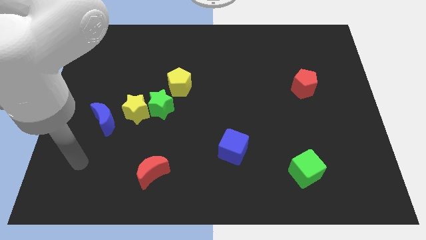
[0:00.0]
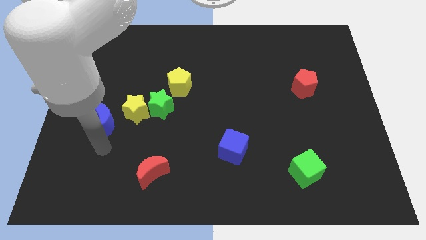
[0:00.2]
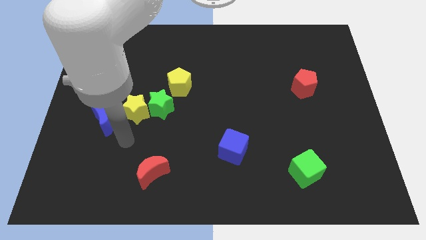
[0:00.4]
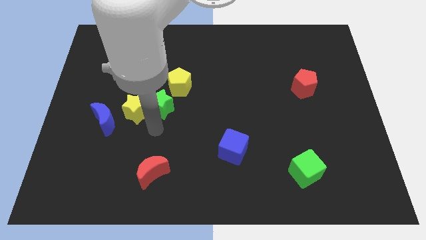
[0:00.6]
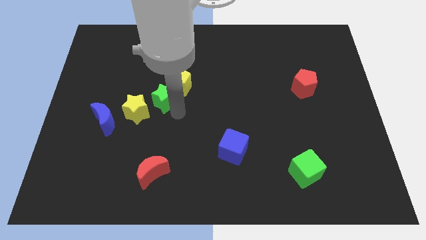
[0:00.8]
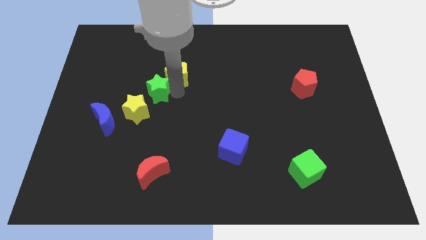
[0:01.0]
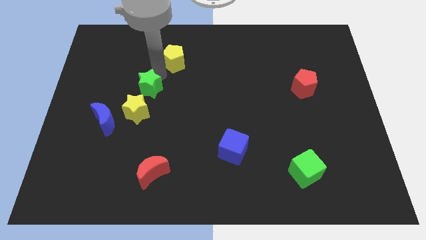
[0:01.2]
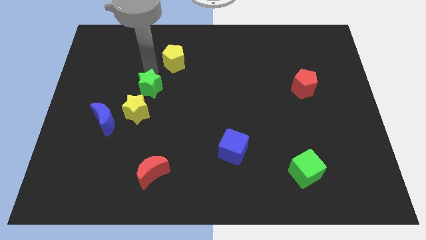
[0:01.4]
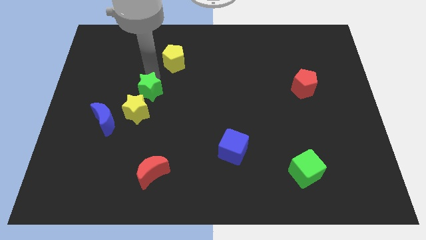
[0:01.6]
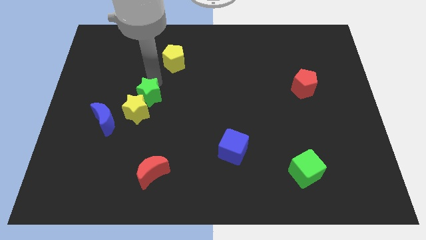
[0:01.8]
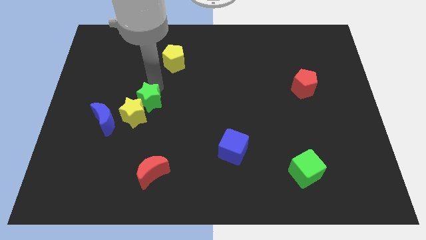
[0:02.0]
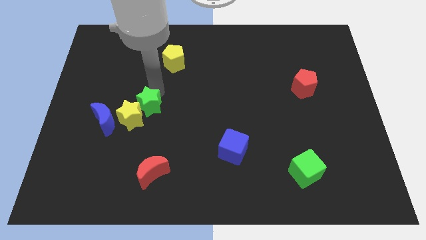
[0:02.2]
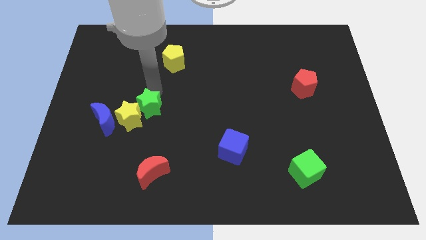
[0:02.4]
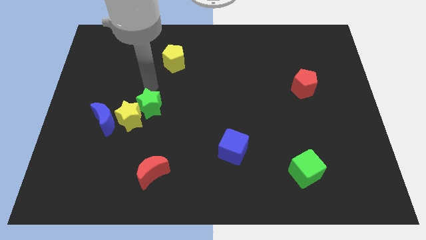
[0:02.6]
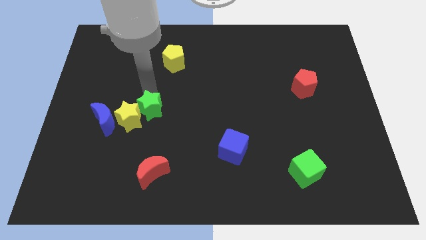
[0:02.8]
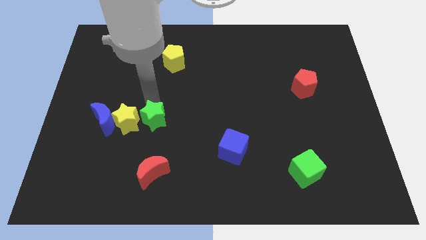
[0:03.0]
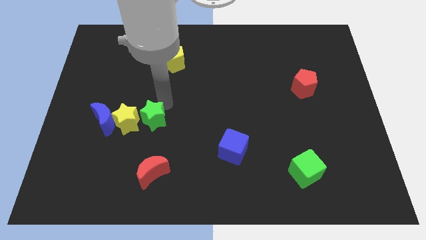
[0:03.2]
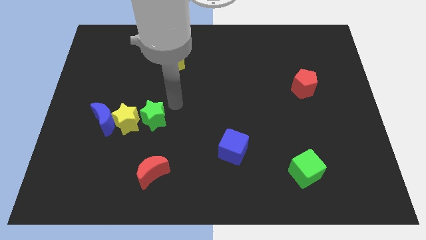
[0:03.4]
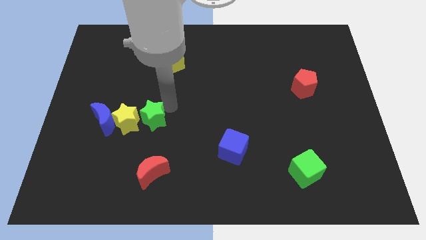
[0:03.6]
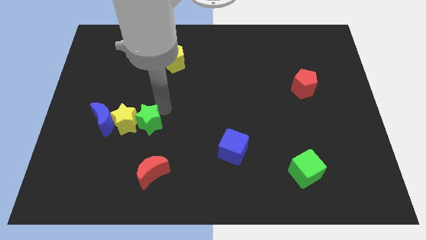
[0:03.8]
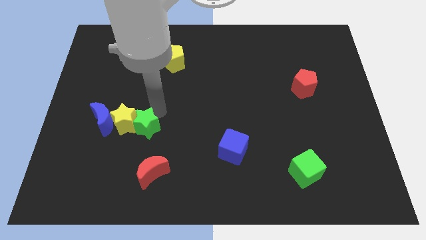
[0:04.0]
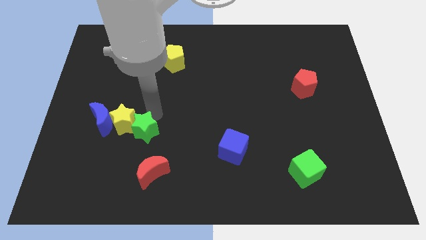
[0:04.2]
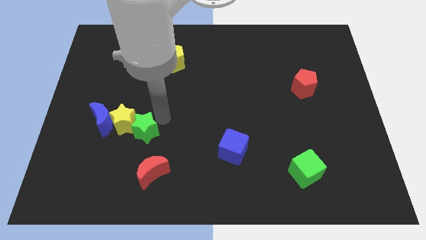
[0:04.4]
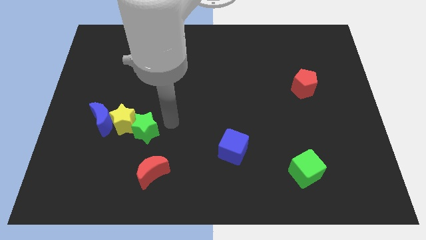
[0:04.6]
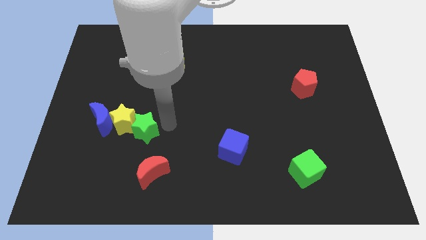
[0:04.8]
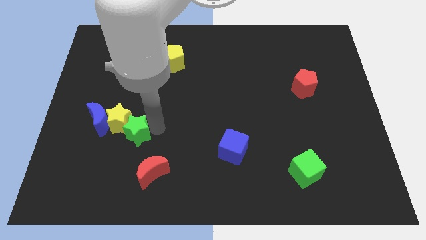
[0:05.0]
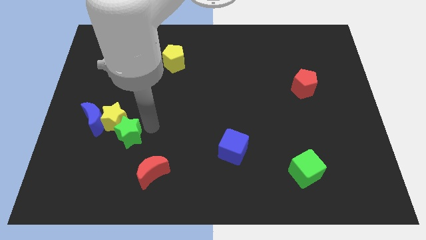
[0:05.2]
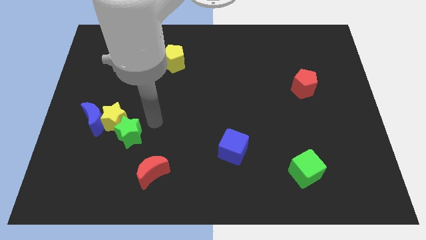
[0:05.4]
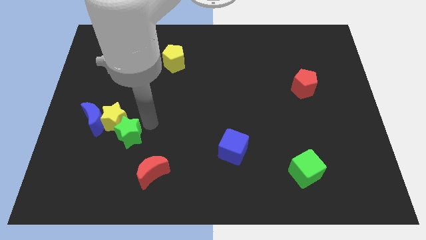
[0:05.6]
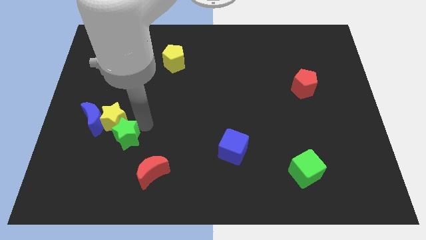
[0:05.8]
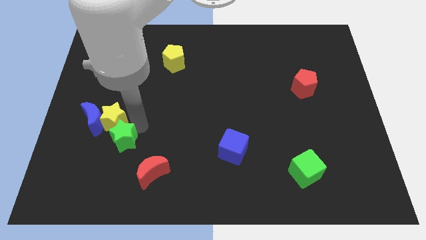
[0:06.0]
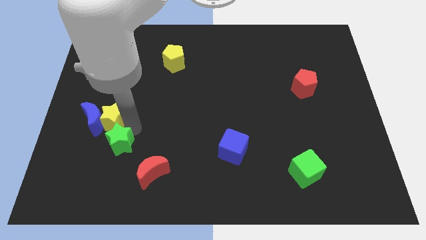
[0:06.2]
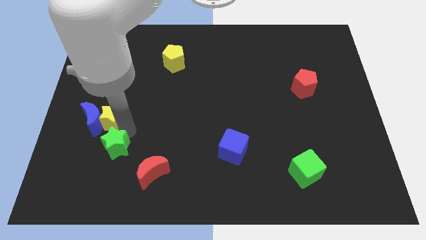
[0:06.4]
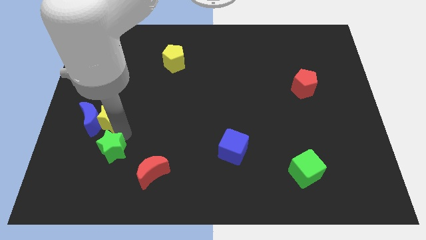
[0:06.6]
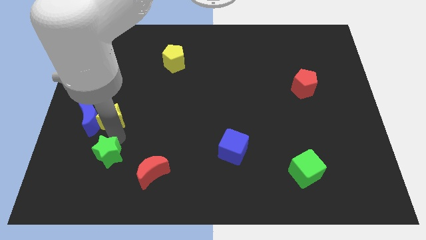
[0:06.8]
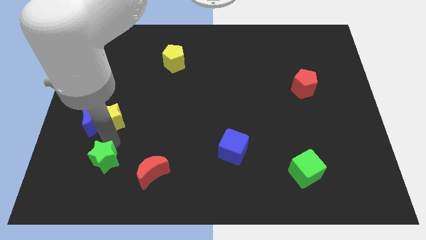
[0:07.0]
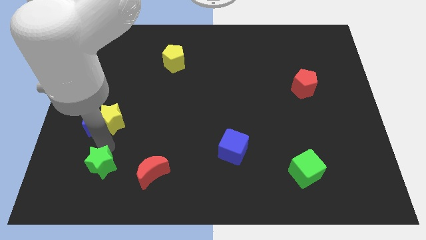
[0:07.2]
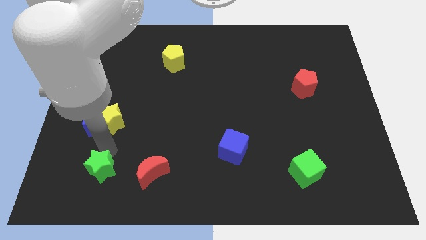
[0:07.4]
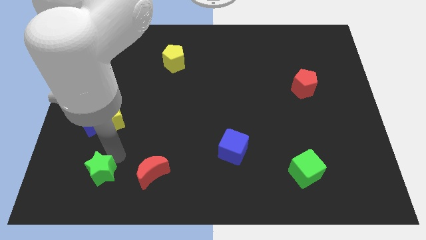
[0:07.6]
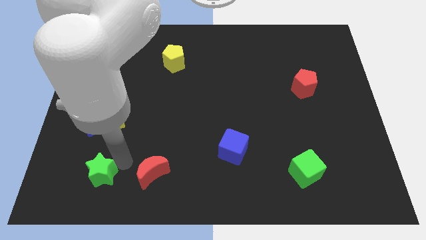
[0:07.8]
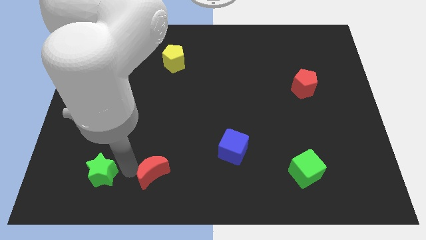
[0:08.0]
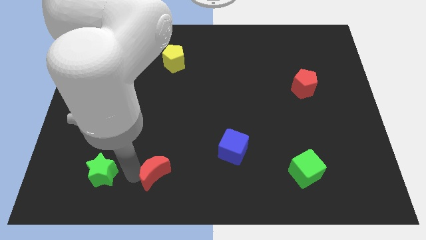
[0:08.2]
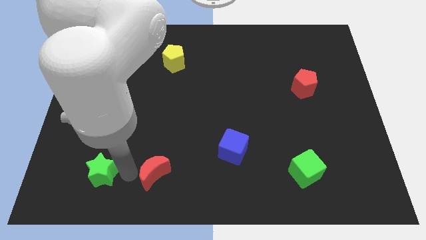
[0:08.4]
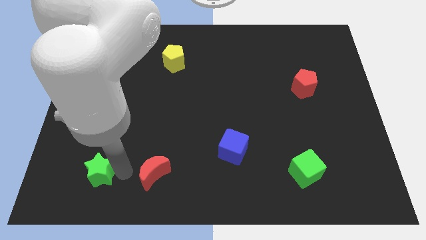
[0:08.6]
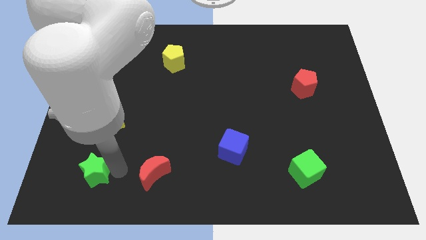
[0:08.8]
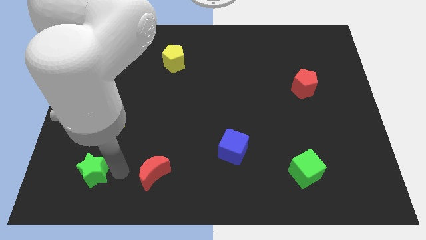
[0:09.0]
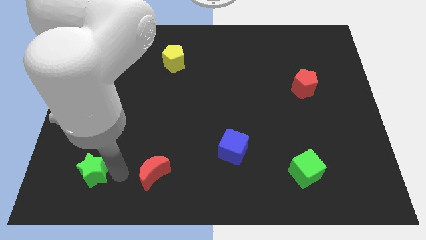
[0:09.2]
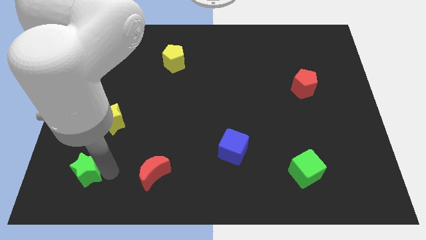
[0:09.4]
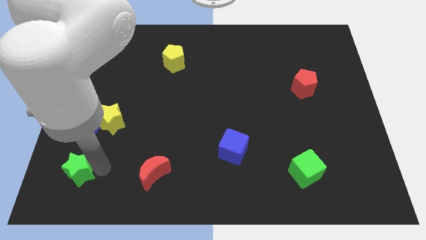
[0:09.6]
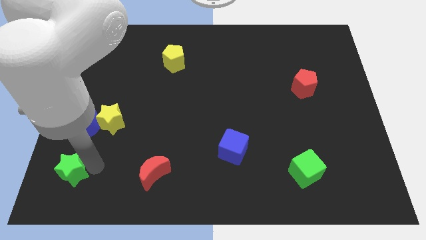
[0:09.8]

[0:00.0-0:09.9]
push the green star to the lower left corner

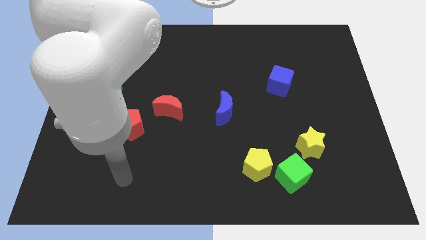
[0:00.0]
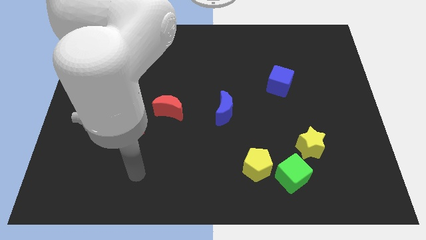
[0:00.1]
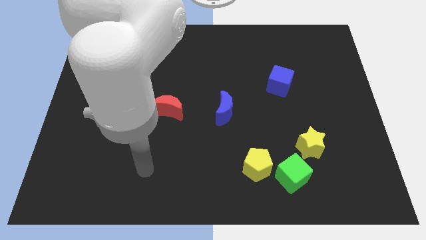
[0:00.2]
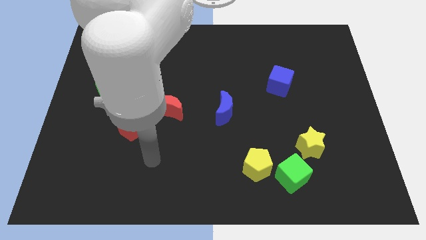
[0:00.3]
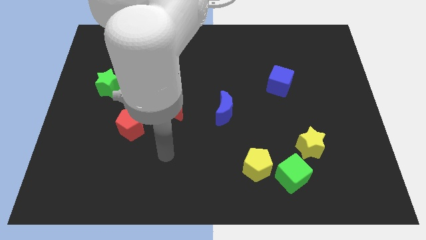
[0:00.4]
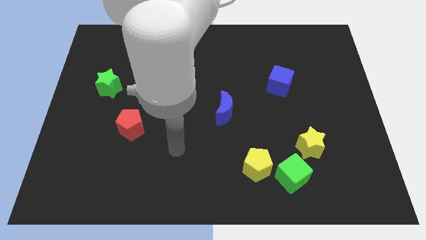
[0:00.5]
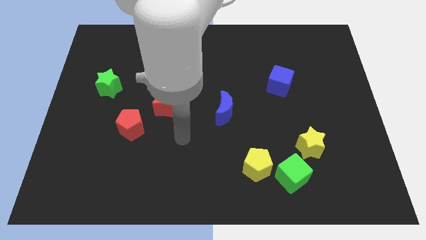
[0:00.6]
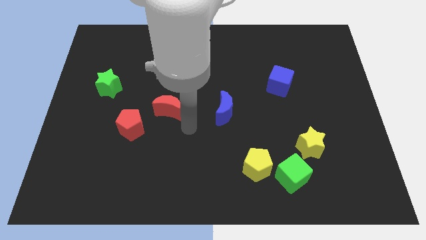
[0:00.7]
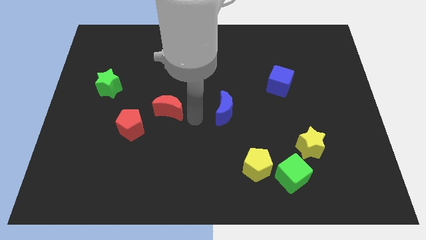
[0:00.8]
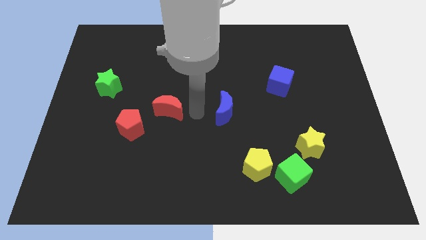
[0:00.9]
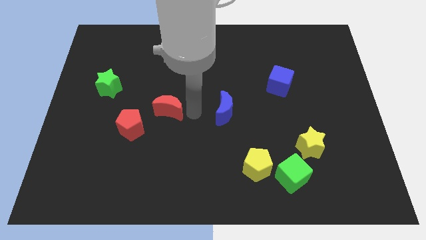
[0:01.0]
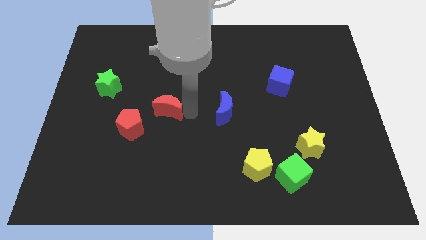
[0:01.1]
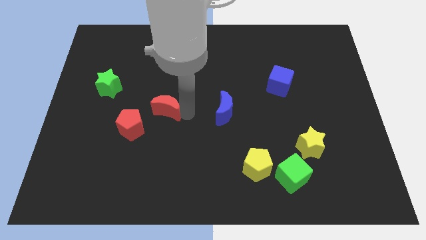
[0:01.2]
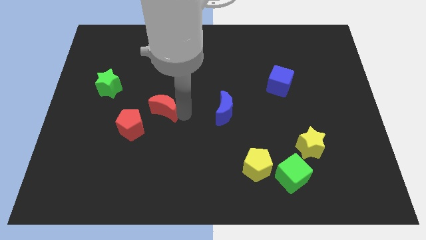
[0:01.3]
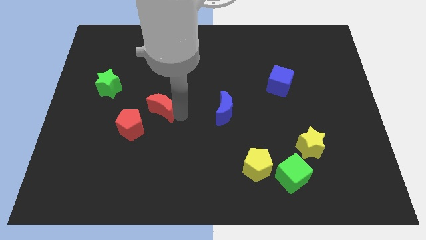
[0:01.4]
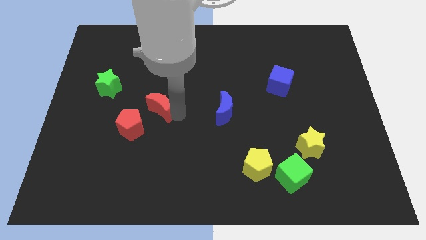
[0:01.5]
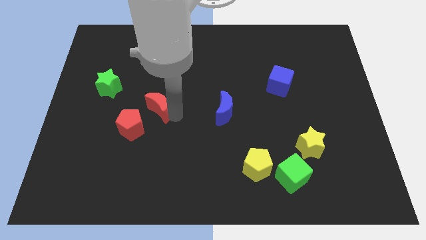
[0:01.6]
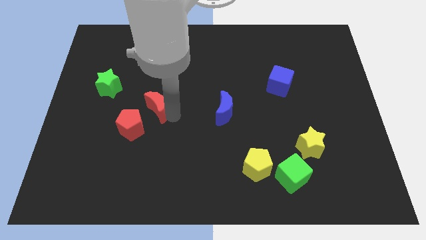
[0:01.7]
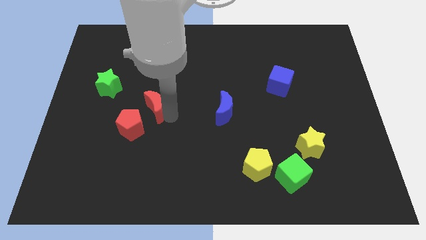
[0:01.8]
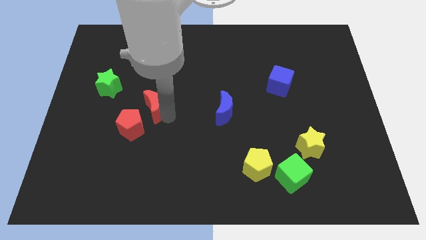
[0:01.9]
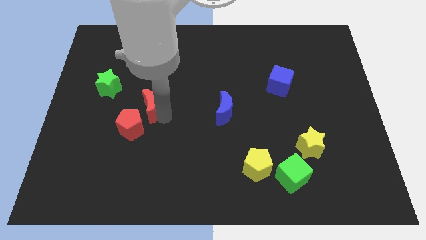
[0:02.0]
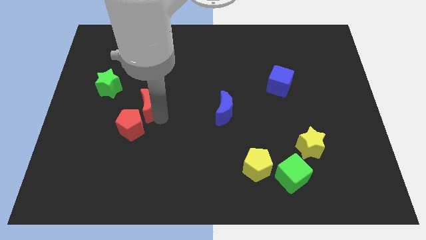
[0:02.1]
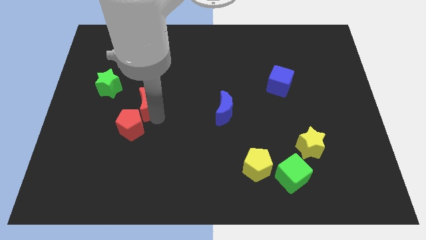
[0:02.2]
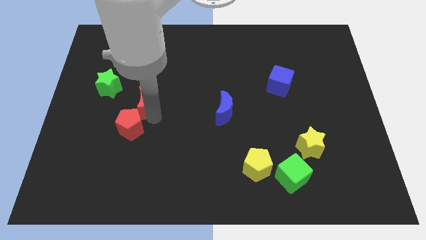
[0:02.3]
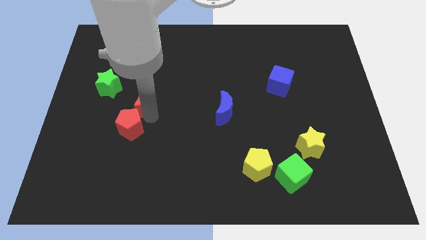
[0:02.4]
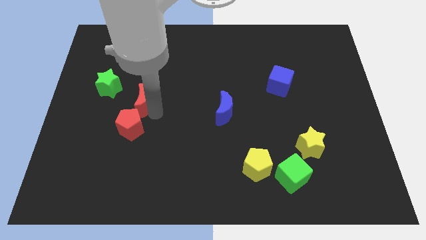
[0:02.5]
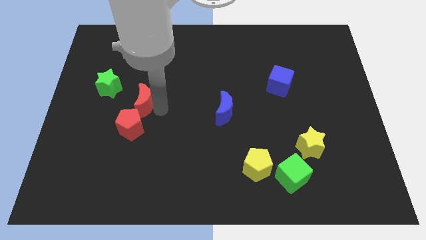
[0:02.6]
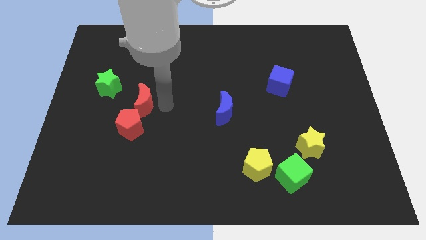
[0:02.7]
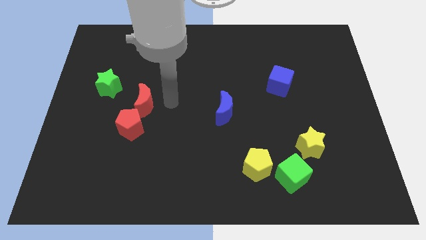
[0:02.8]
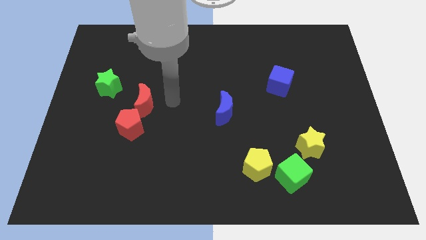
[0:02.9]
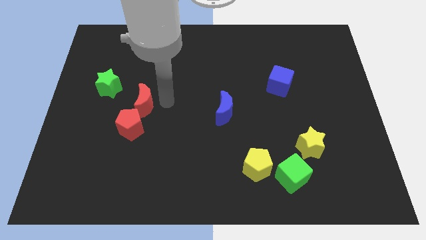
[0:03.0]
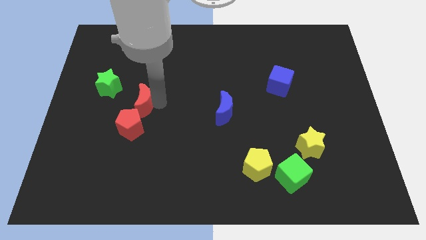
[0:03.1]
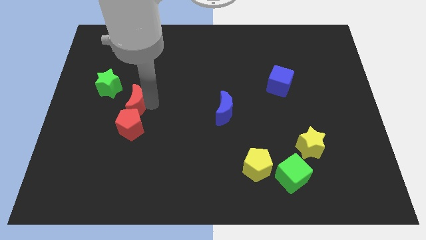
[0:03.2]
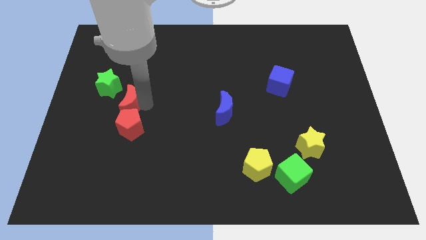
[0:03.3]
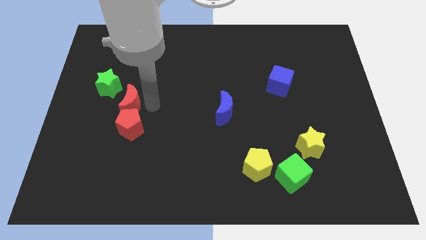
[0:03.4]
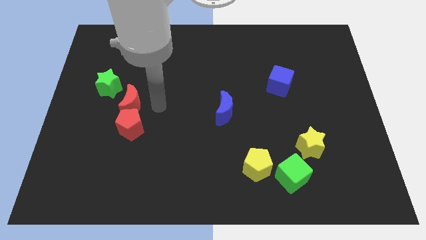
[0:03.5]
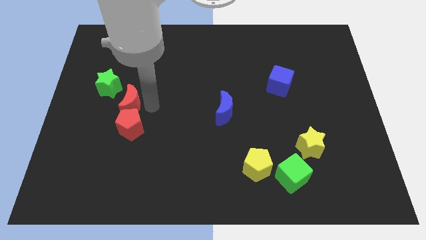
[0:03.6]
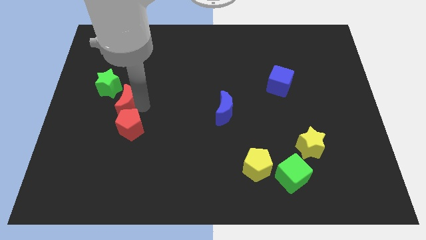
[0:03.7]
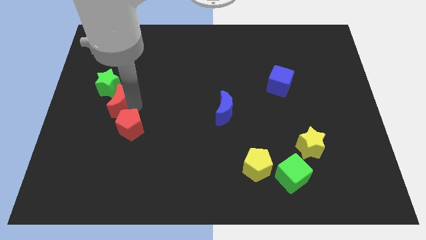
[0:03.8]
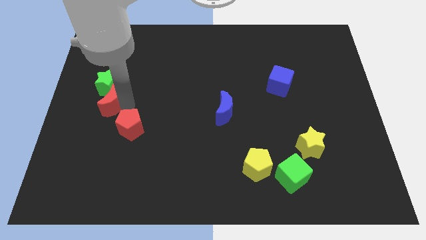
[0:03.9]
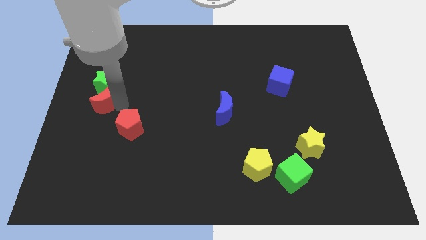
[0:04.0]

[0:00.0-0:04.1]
move the red moon to the left side
